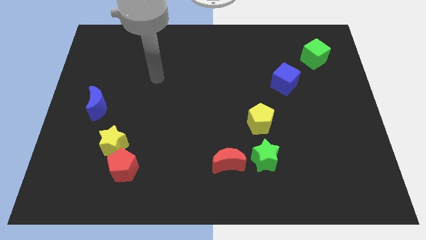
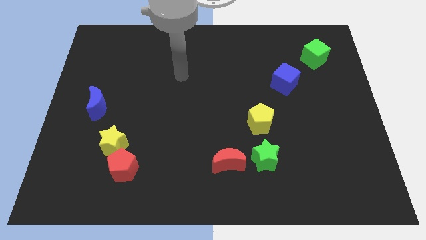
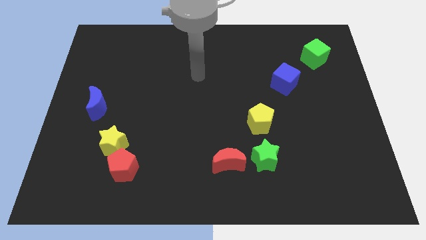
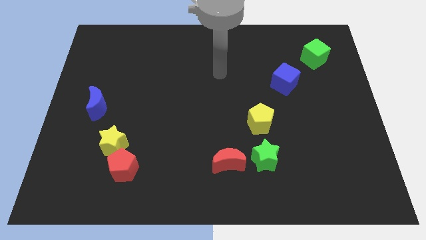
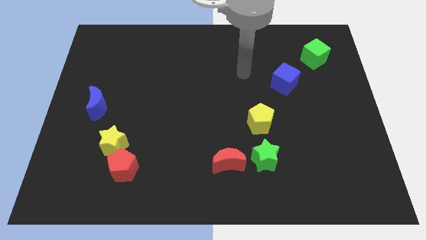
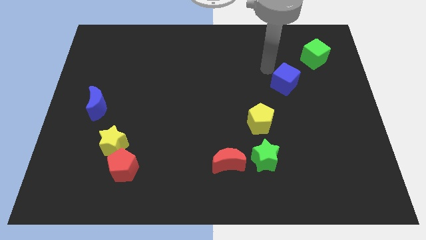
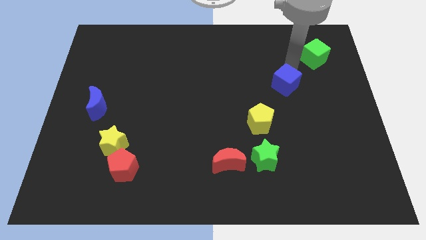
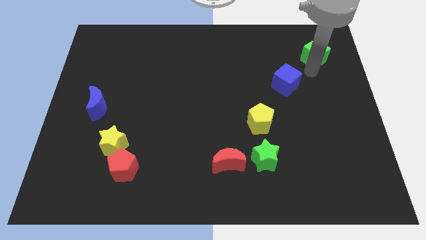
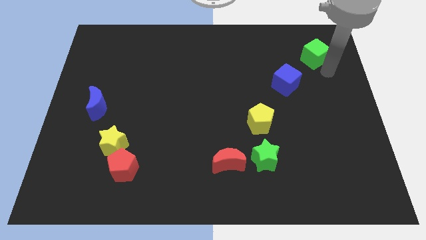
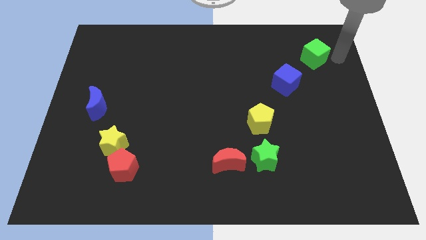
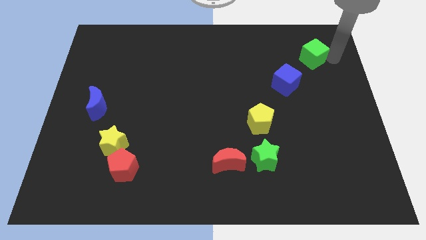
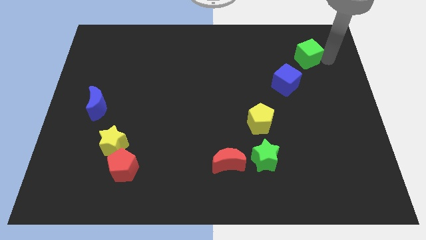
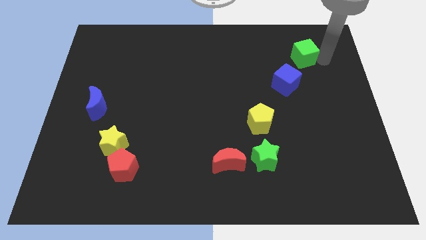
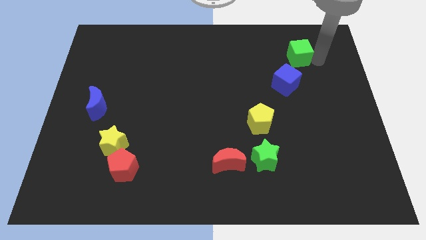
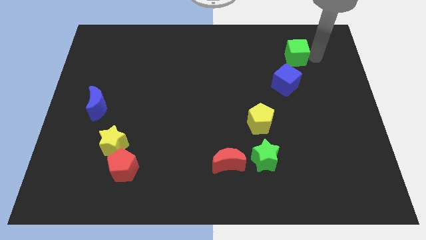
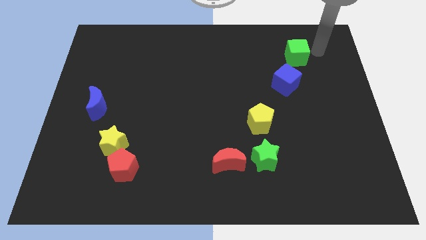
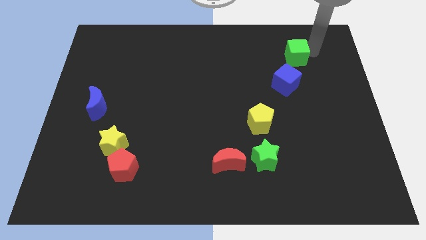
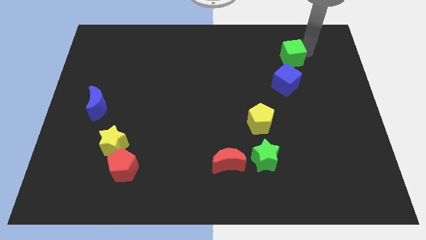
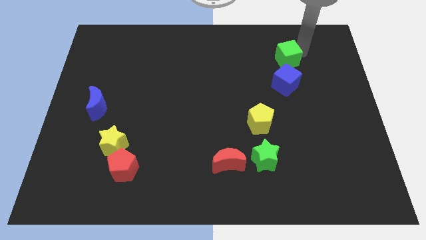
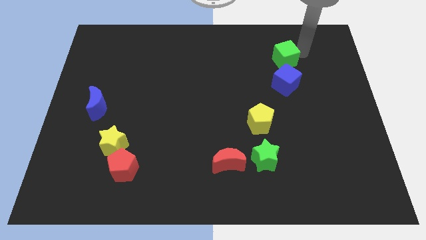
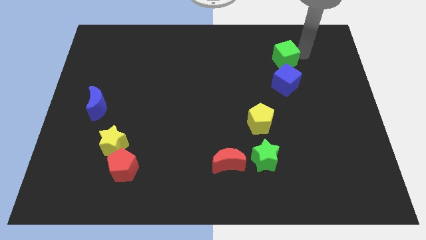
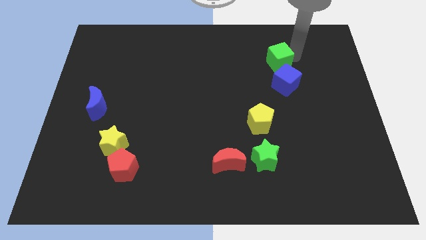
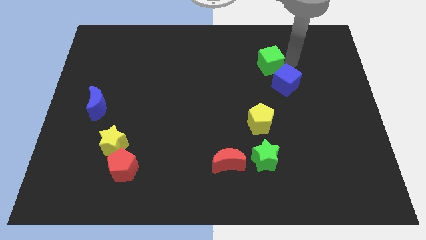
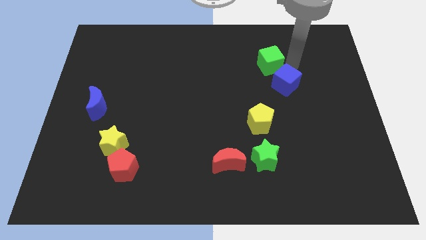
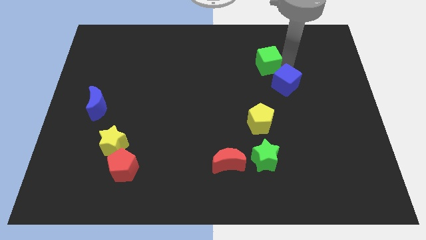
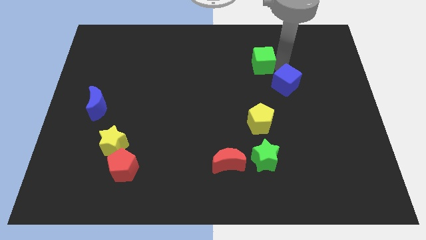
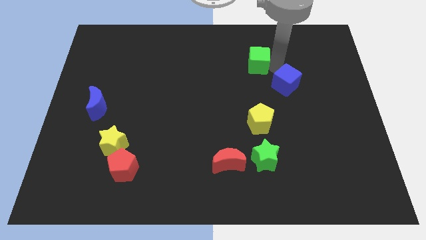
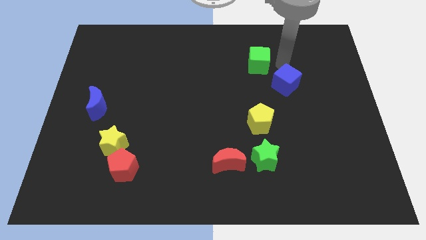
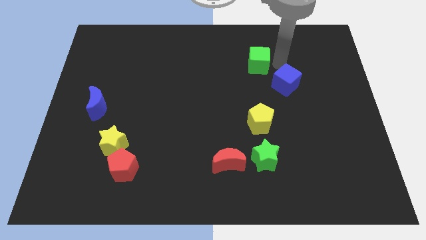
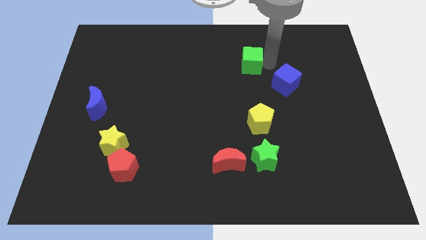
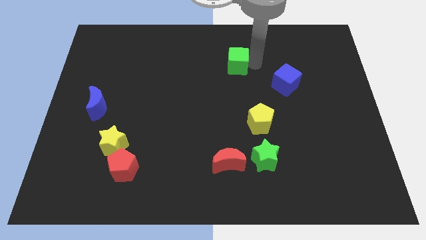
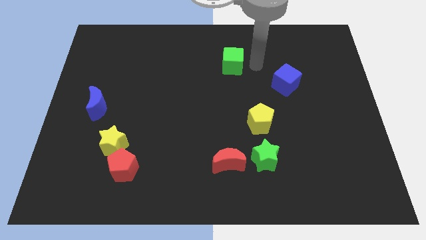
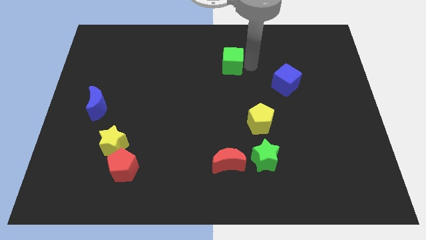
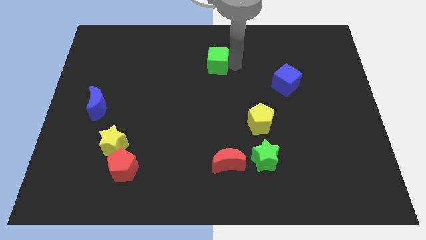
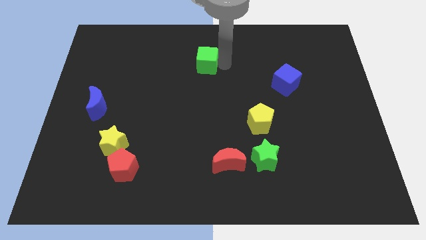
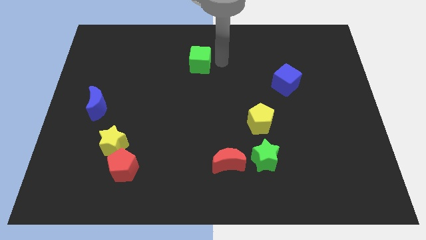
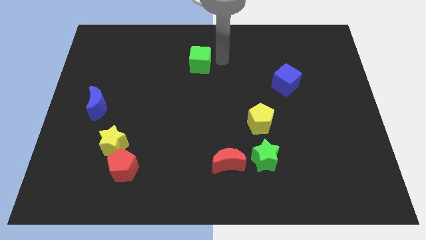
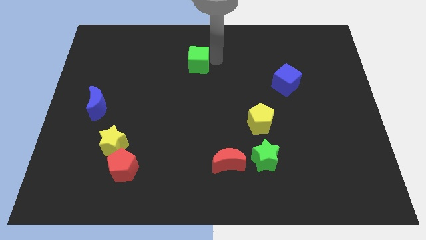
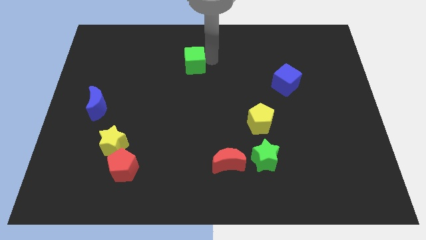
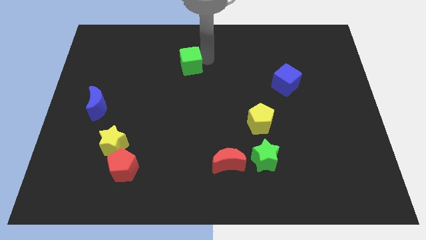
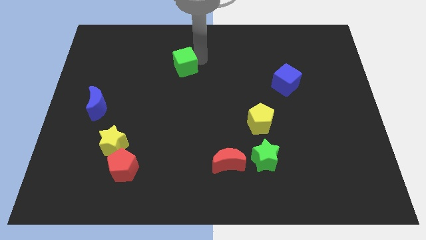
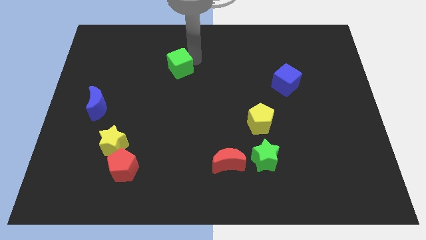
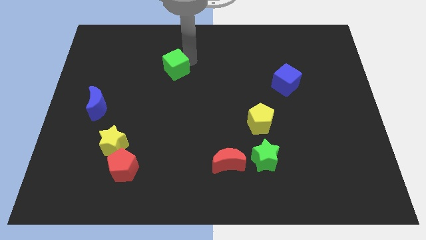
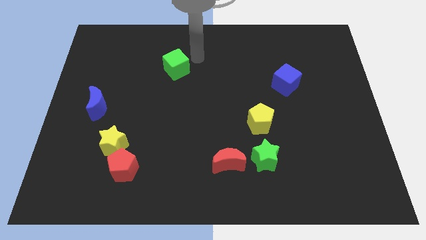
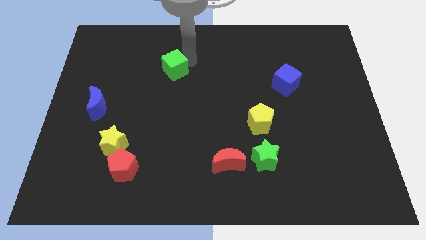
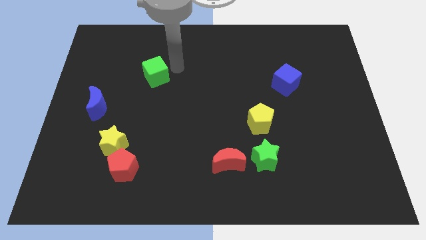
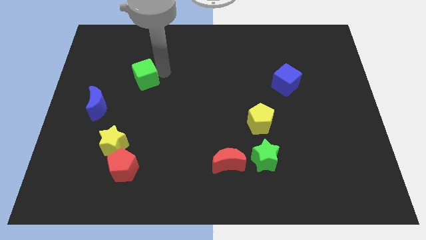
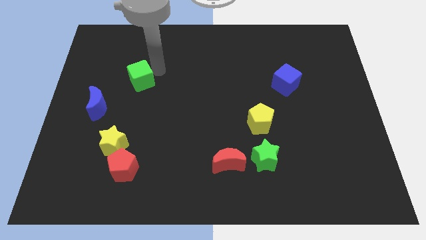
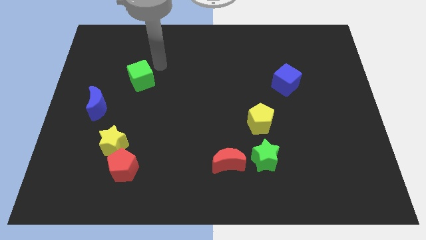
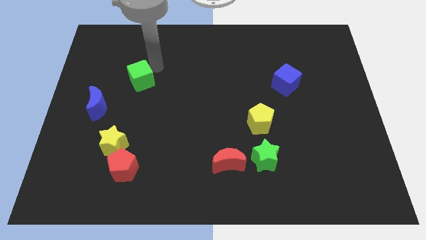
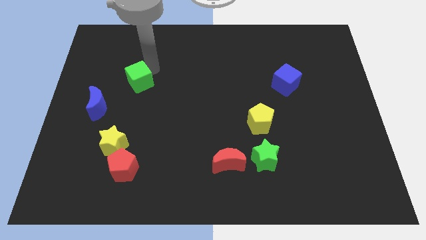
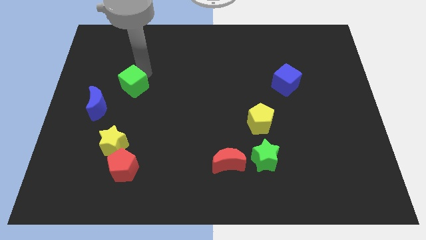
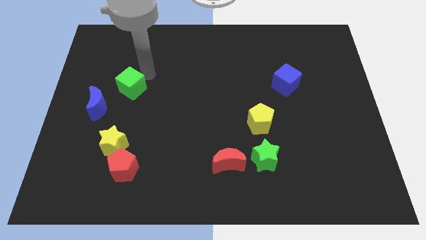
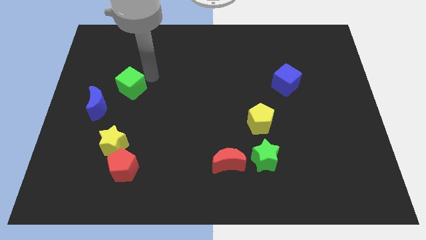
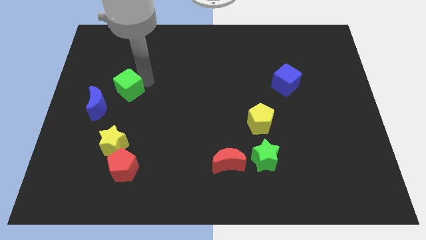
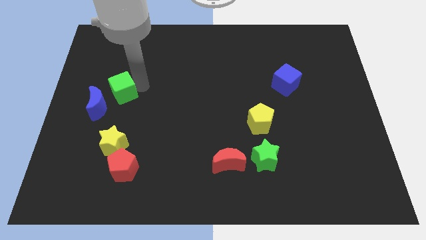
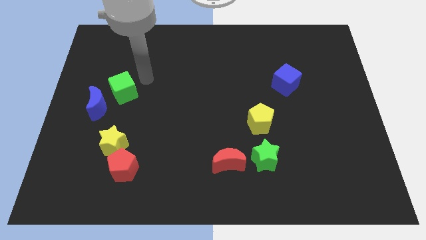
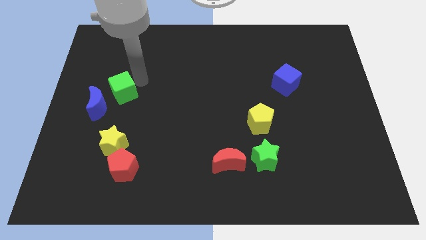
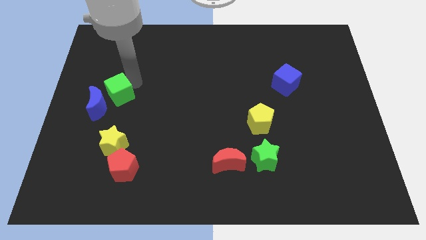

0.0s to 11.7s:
push the green cube to the blue moon

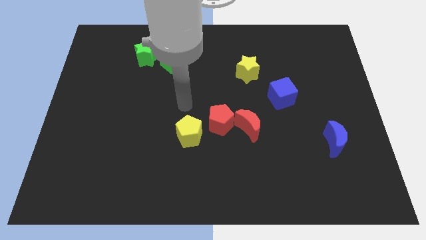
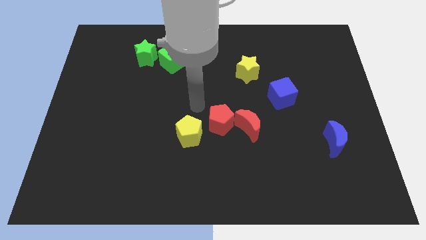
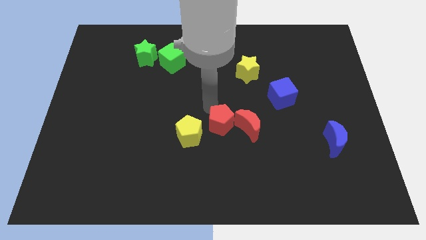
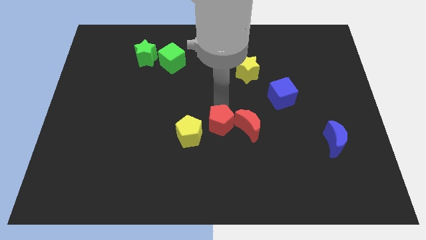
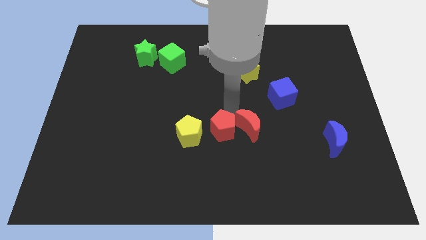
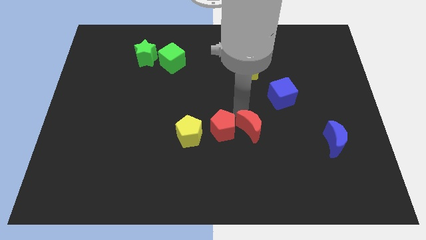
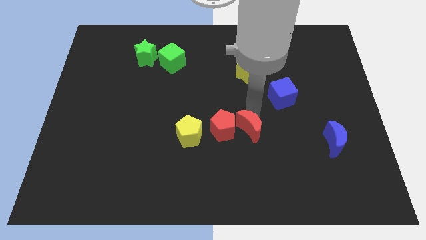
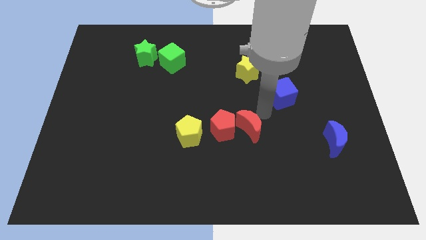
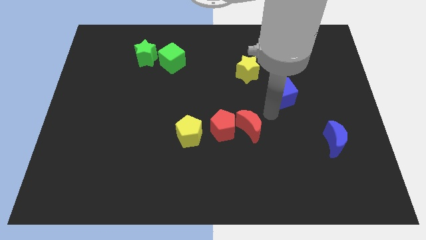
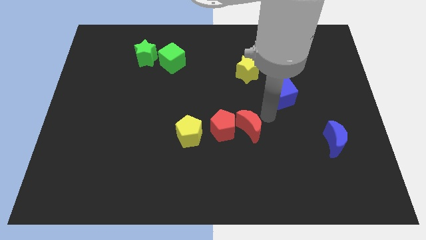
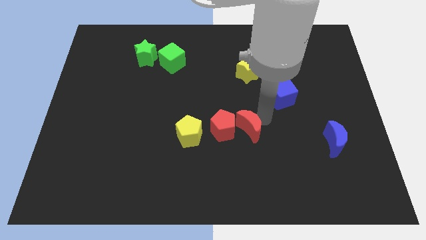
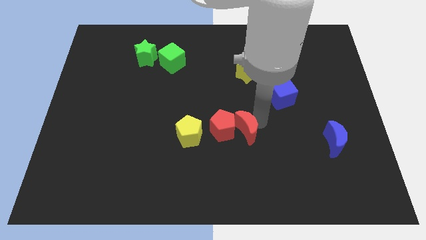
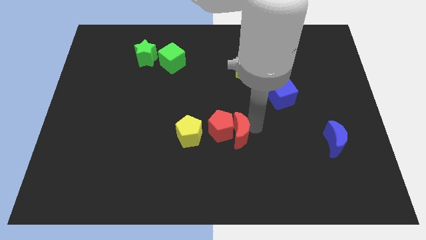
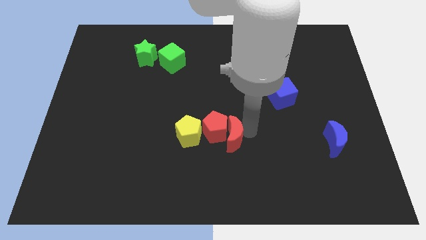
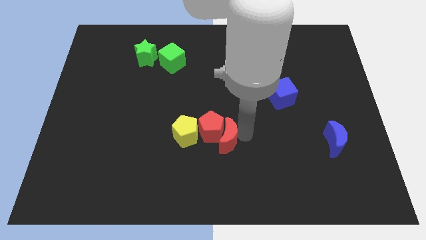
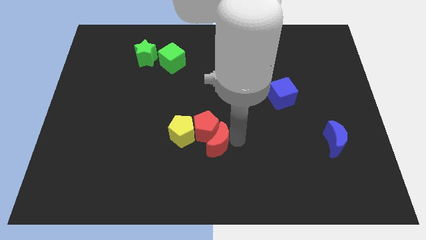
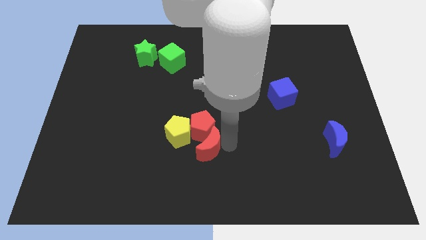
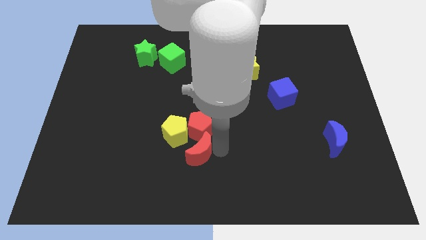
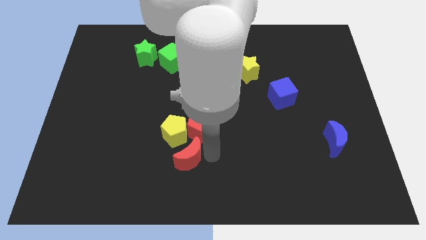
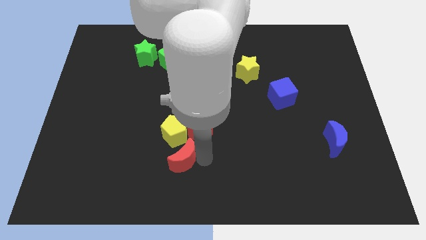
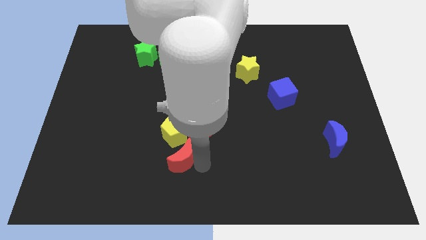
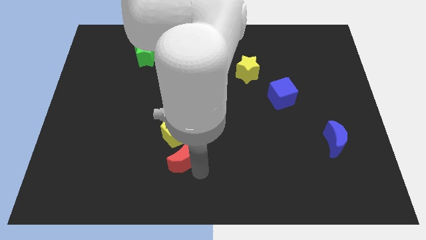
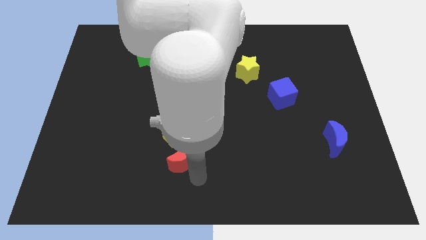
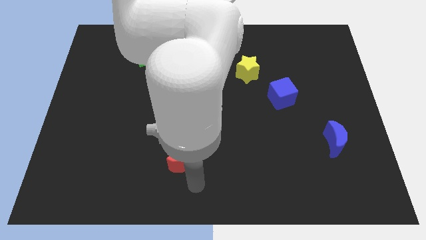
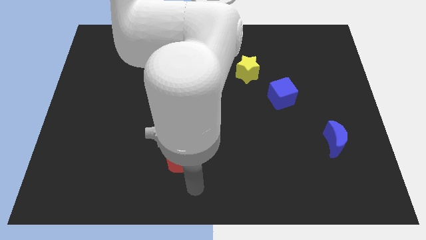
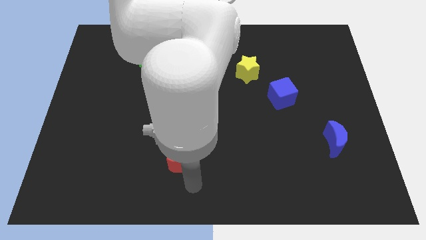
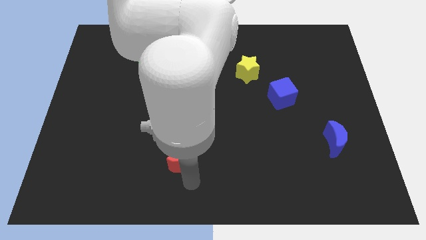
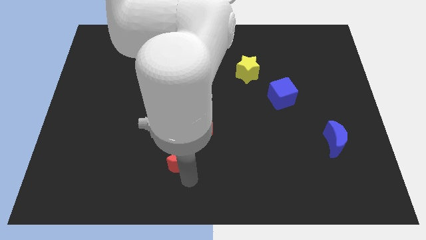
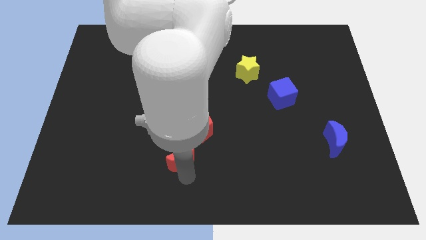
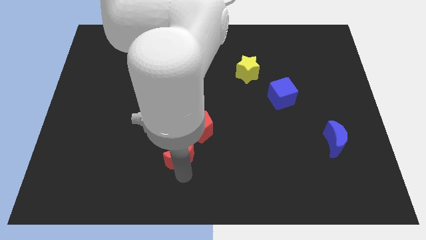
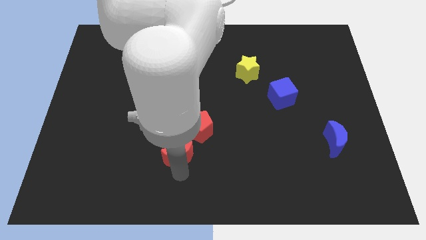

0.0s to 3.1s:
slide the red moon close to the yellow pentagon
